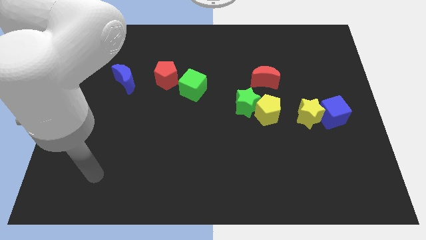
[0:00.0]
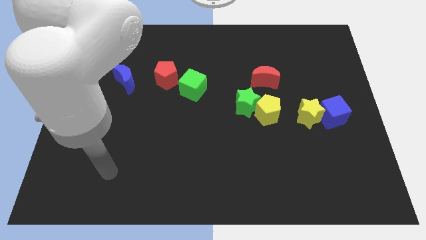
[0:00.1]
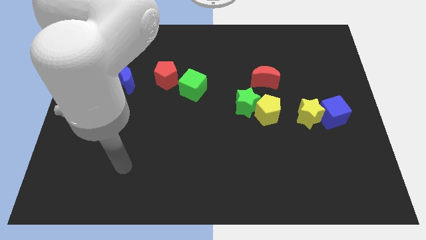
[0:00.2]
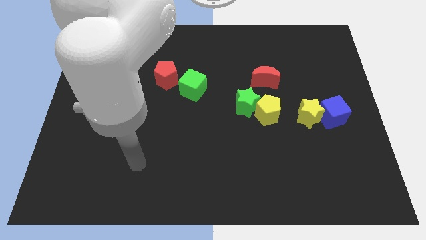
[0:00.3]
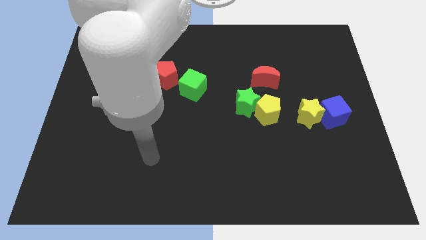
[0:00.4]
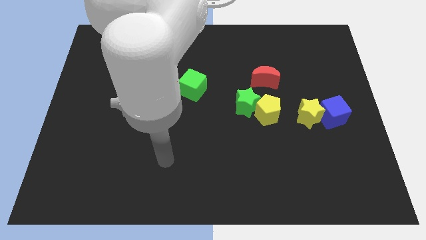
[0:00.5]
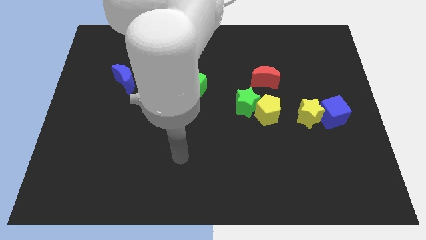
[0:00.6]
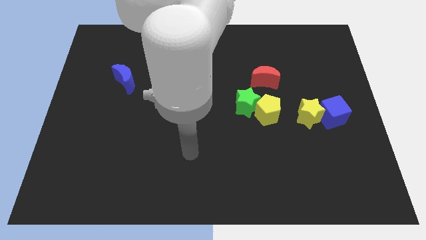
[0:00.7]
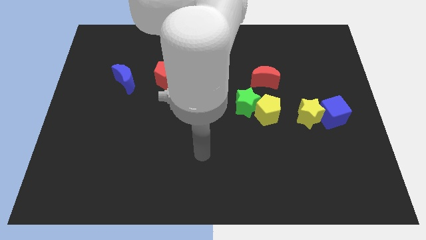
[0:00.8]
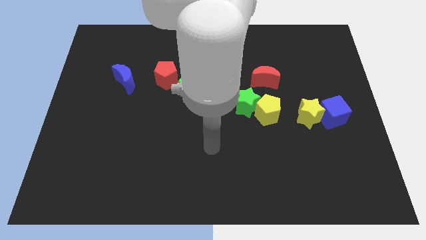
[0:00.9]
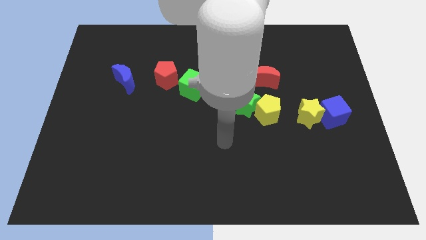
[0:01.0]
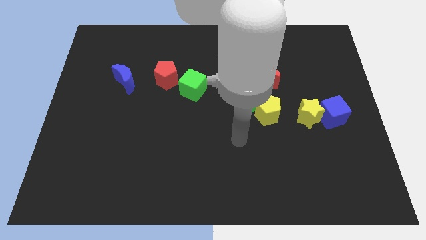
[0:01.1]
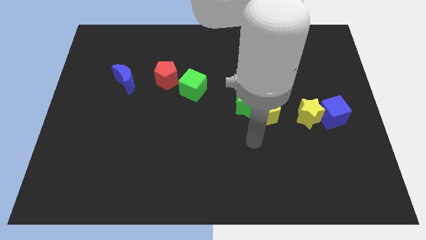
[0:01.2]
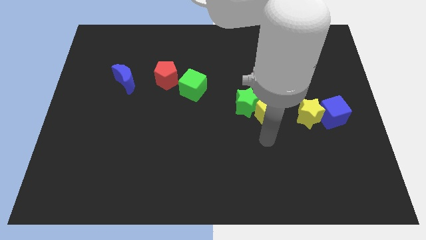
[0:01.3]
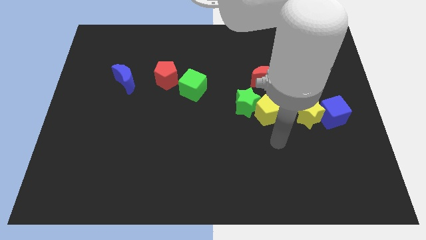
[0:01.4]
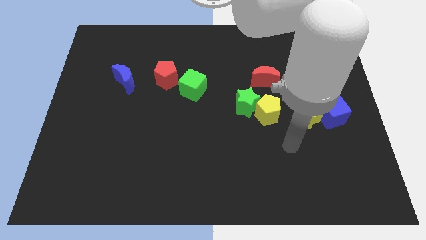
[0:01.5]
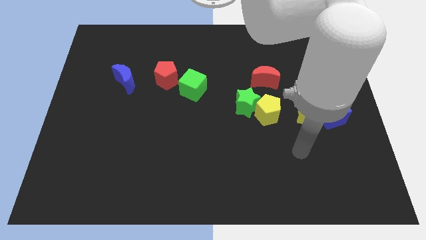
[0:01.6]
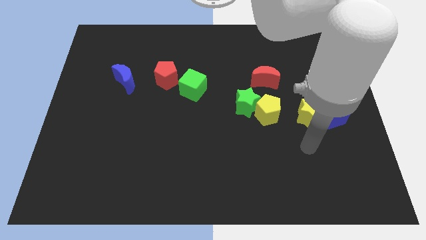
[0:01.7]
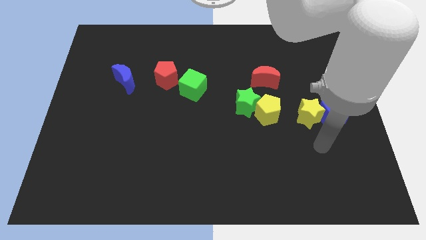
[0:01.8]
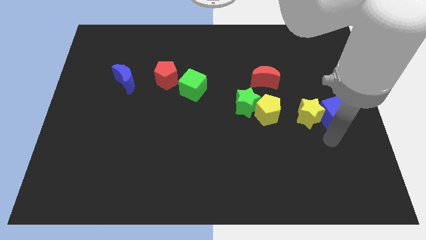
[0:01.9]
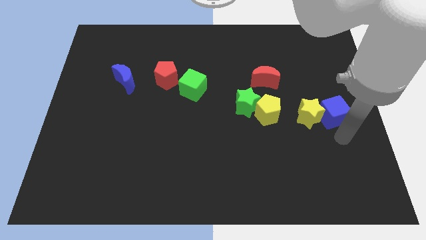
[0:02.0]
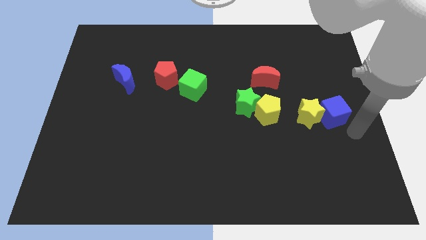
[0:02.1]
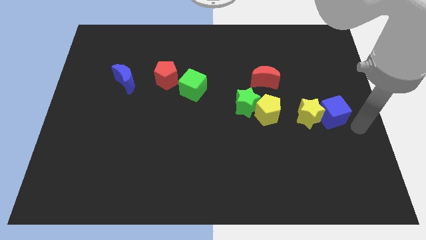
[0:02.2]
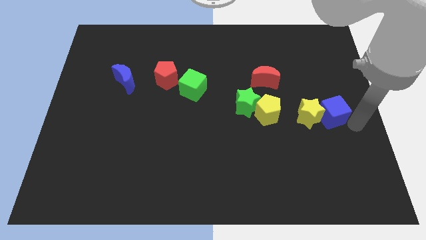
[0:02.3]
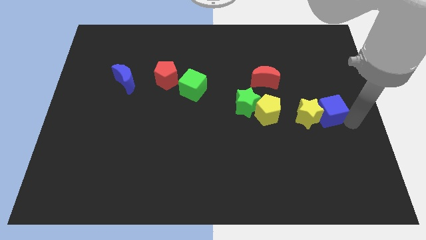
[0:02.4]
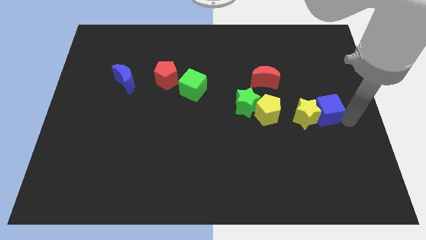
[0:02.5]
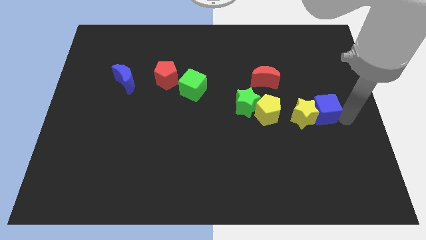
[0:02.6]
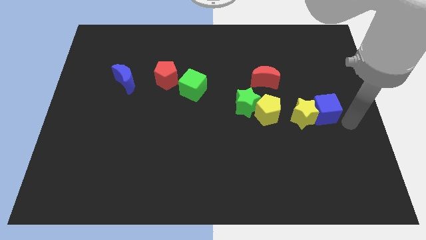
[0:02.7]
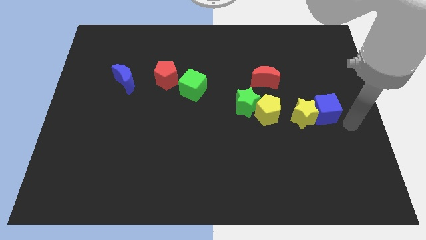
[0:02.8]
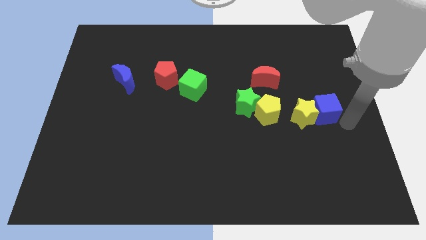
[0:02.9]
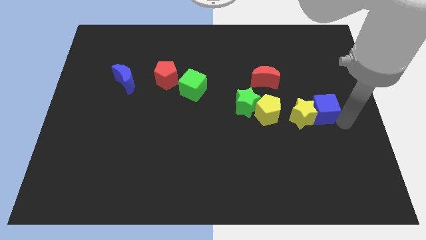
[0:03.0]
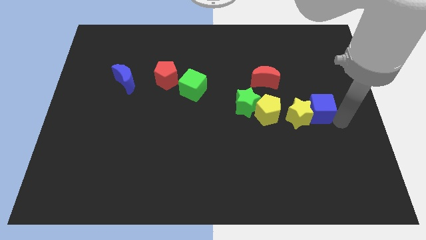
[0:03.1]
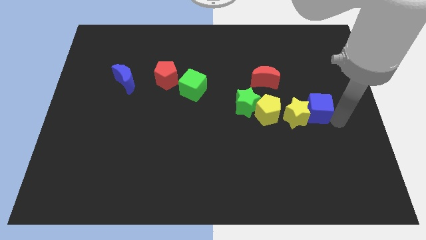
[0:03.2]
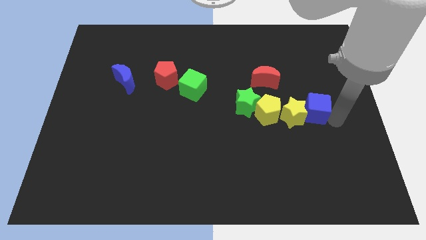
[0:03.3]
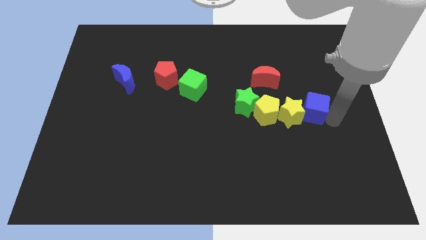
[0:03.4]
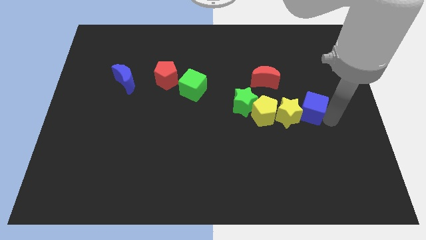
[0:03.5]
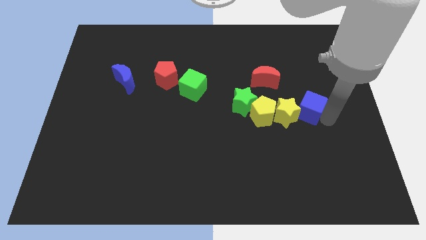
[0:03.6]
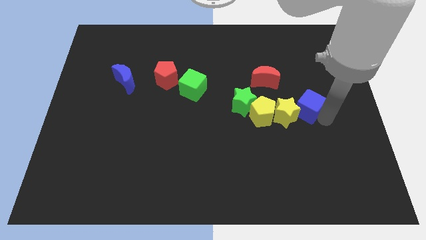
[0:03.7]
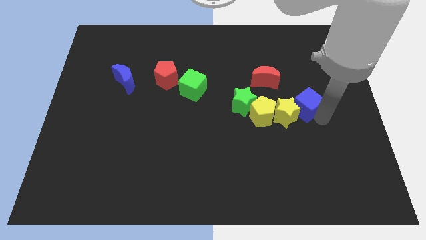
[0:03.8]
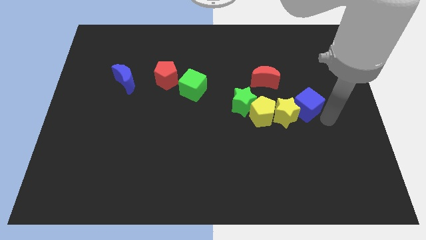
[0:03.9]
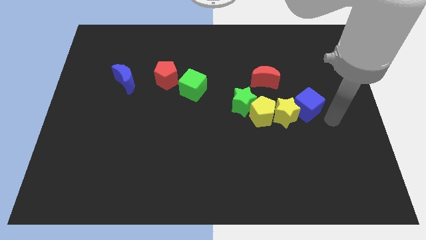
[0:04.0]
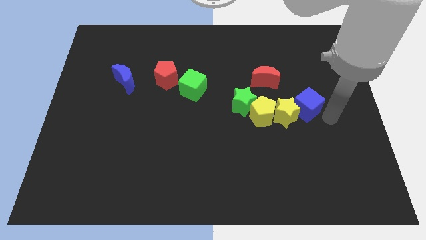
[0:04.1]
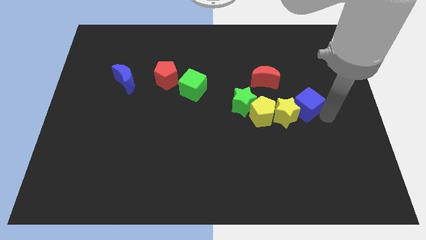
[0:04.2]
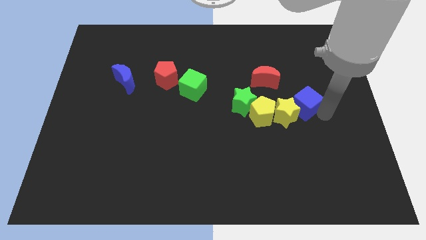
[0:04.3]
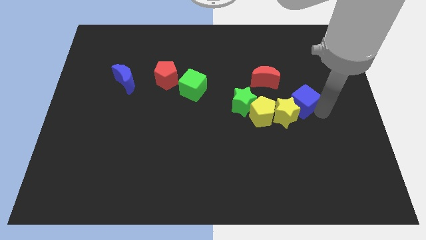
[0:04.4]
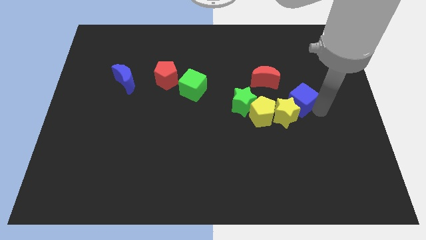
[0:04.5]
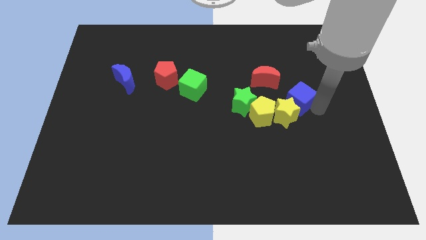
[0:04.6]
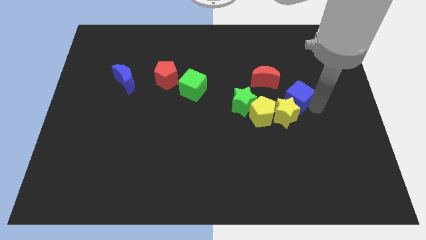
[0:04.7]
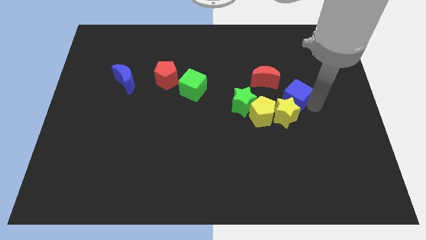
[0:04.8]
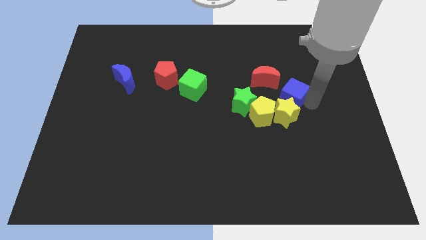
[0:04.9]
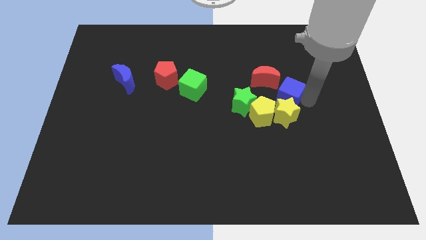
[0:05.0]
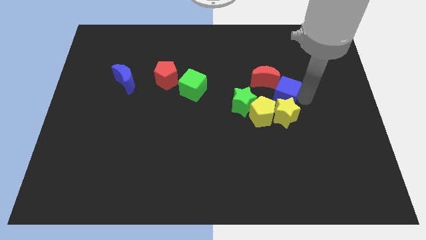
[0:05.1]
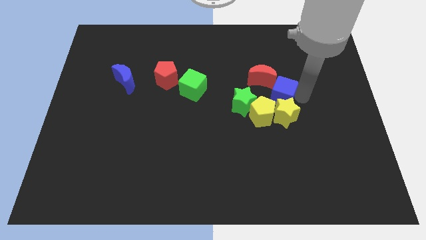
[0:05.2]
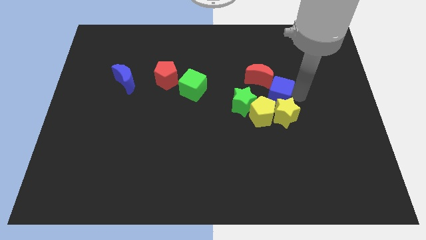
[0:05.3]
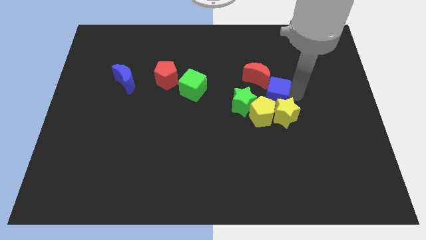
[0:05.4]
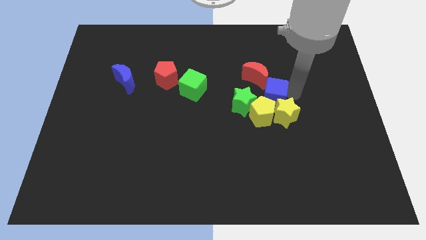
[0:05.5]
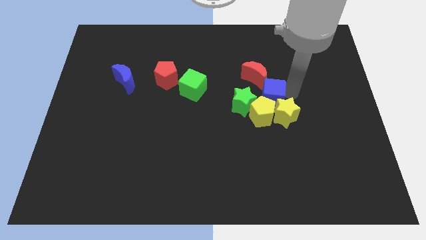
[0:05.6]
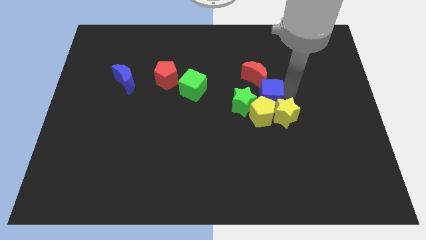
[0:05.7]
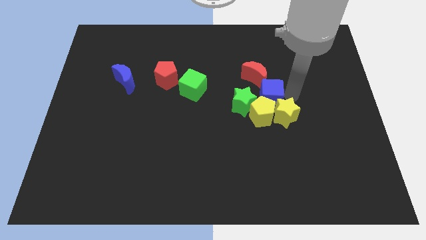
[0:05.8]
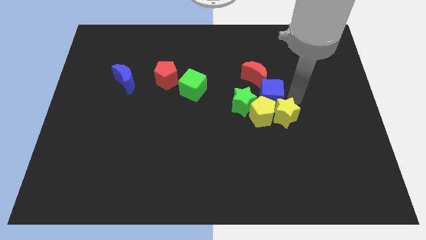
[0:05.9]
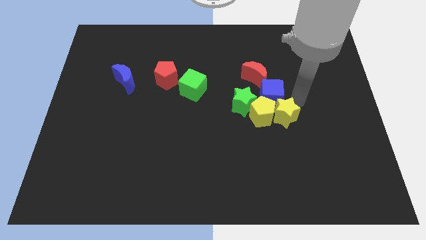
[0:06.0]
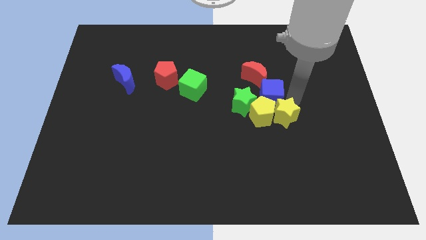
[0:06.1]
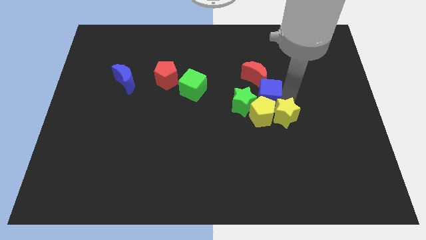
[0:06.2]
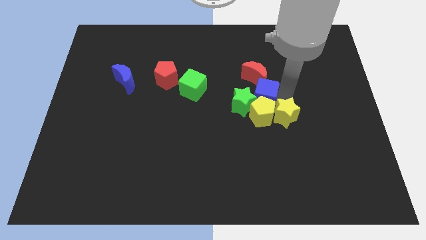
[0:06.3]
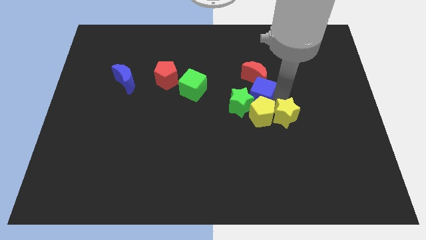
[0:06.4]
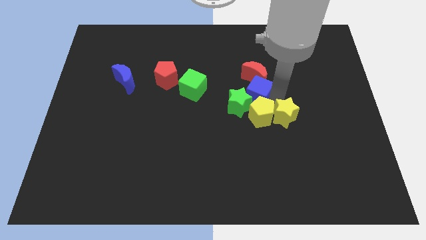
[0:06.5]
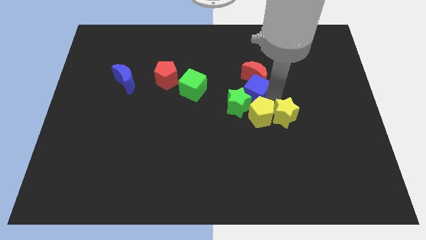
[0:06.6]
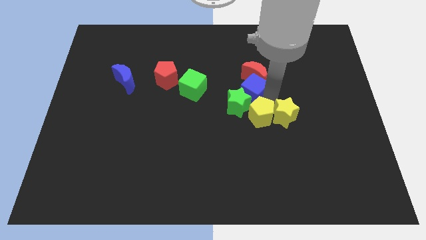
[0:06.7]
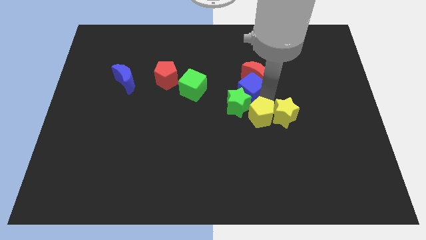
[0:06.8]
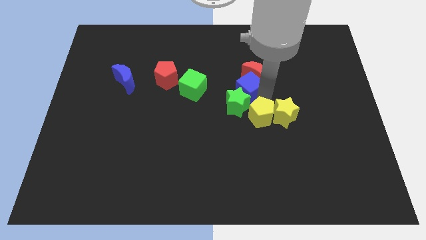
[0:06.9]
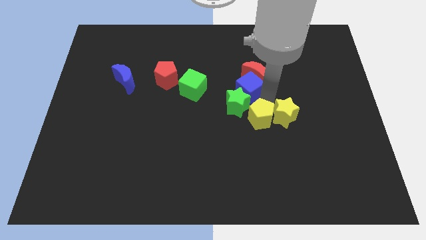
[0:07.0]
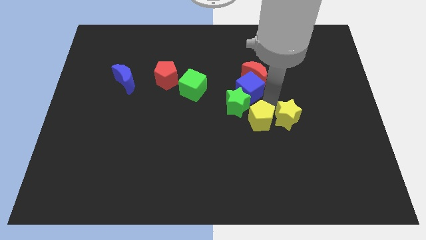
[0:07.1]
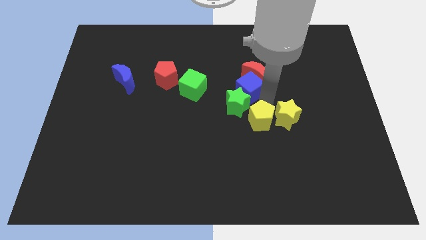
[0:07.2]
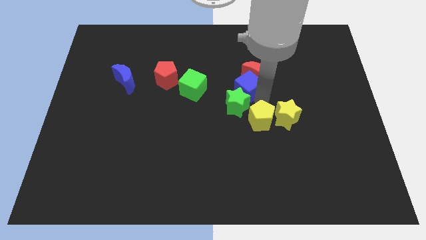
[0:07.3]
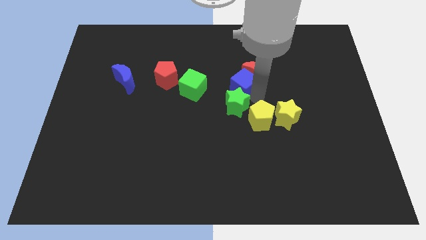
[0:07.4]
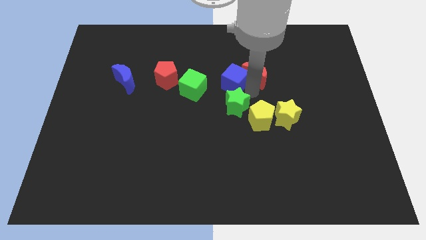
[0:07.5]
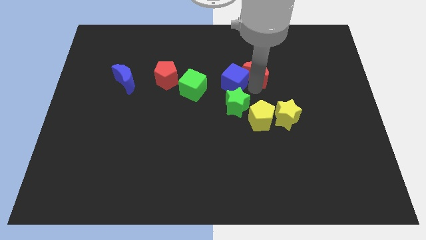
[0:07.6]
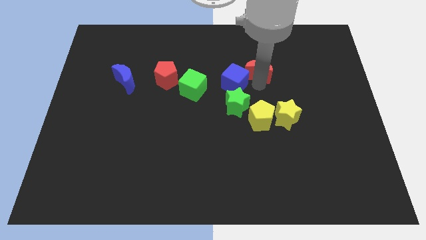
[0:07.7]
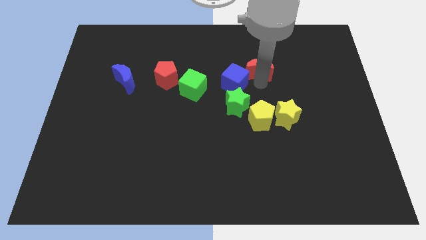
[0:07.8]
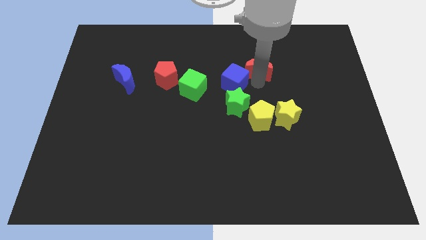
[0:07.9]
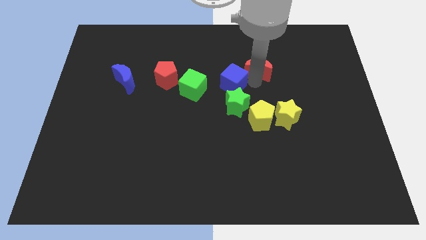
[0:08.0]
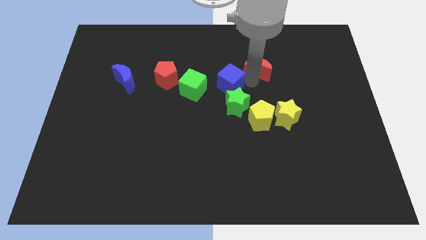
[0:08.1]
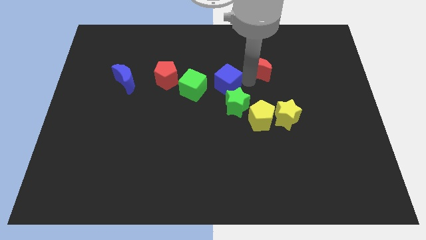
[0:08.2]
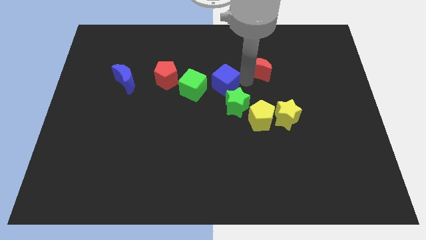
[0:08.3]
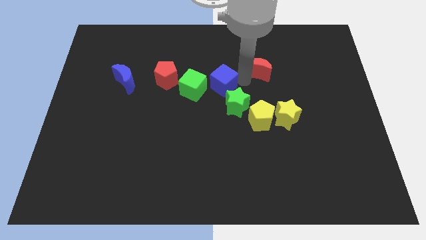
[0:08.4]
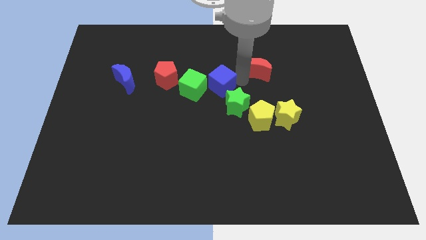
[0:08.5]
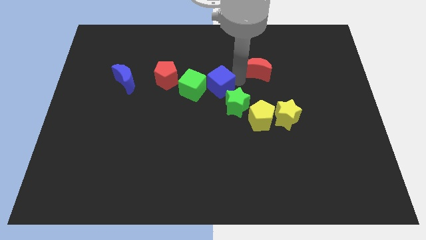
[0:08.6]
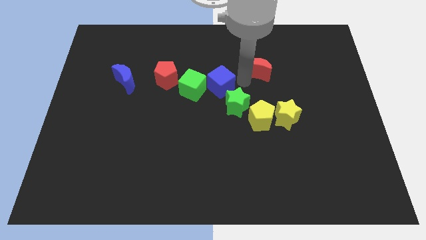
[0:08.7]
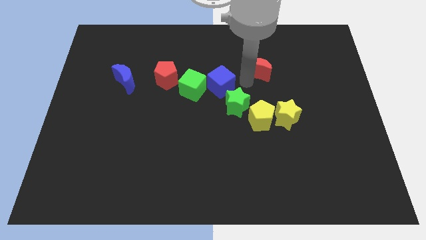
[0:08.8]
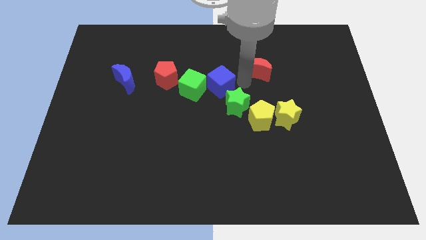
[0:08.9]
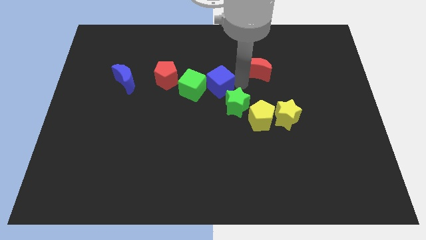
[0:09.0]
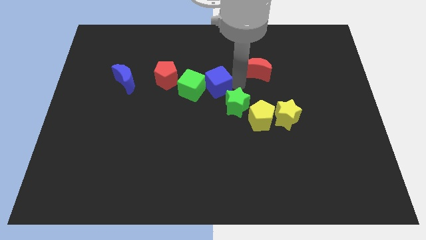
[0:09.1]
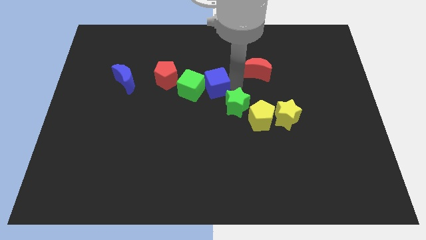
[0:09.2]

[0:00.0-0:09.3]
put the blue cube close to the green cube
